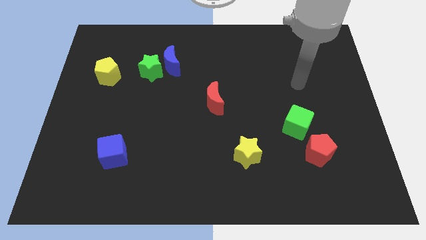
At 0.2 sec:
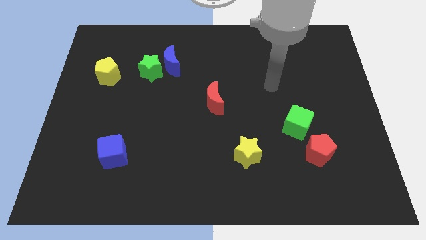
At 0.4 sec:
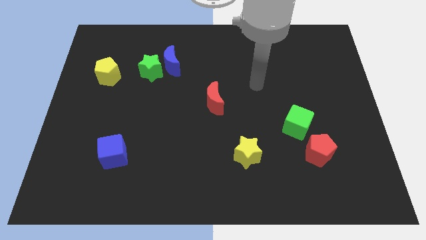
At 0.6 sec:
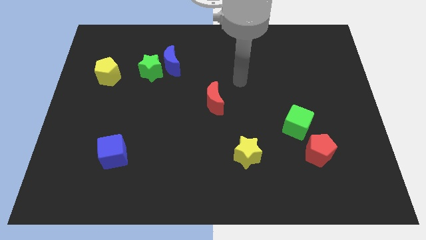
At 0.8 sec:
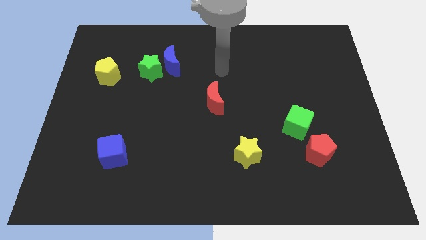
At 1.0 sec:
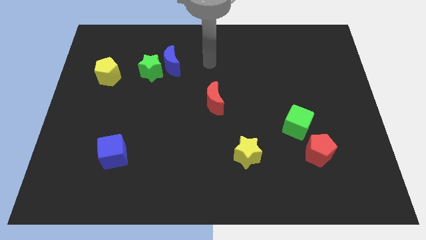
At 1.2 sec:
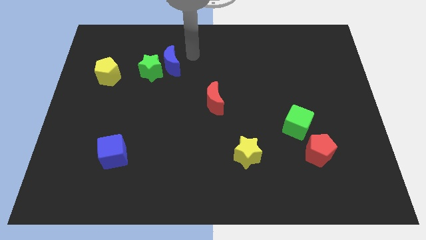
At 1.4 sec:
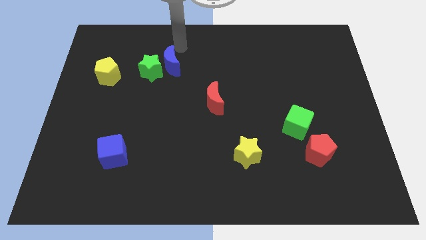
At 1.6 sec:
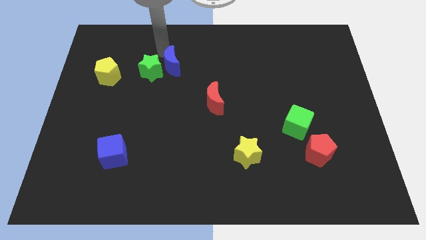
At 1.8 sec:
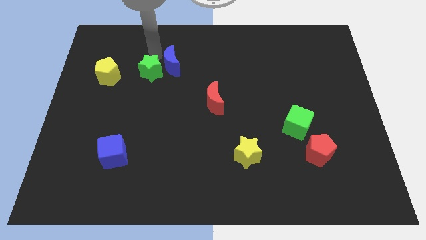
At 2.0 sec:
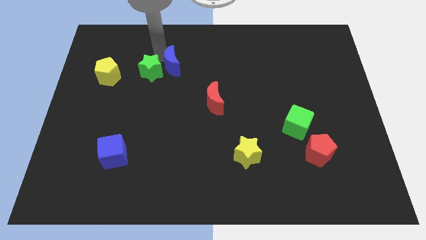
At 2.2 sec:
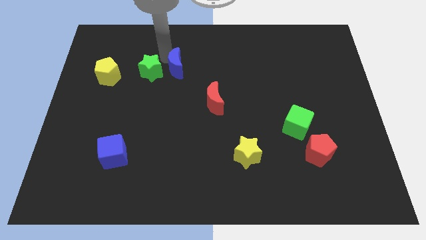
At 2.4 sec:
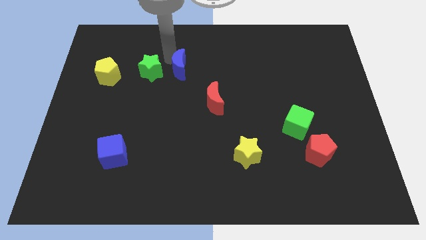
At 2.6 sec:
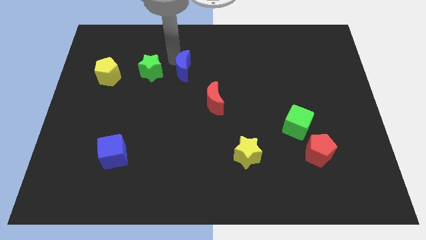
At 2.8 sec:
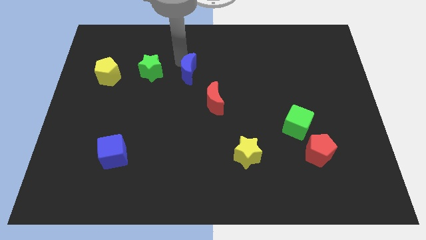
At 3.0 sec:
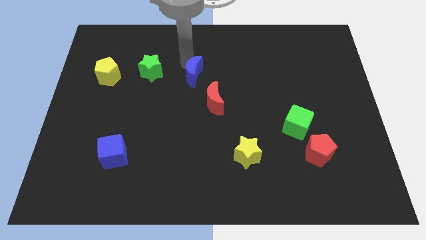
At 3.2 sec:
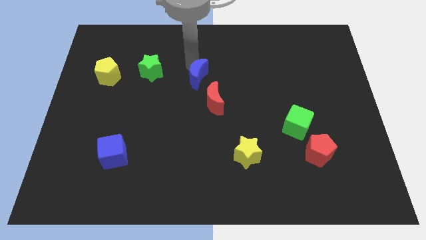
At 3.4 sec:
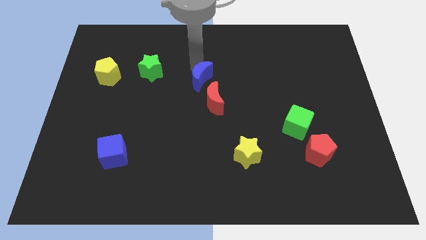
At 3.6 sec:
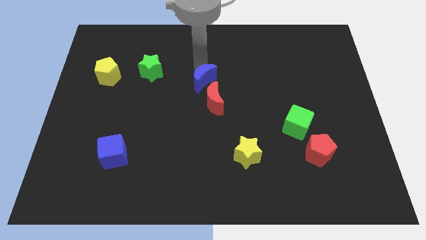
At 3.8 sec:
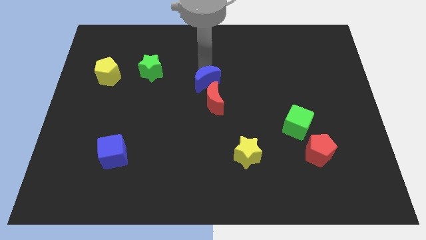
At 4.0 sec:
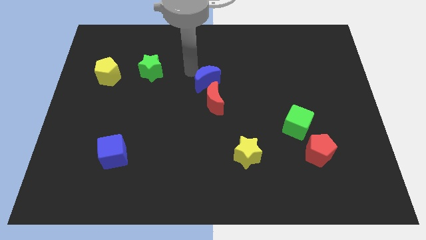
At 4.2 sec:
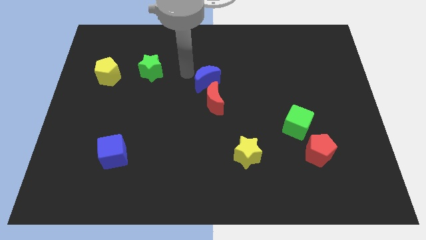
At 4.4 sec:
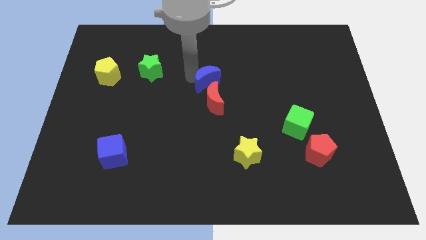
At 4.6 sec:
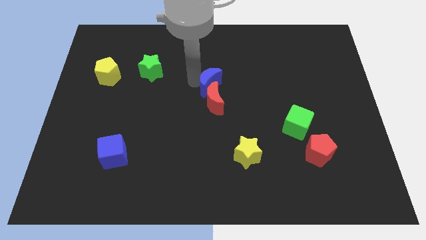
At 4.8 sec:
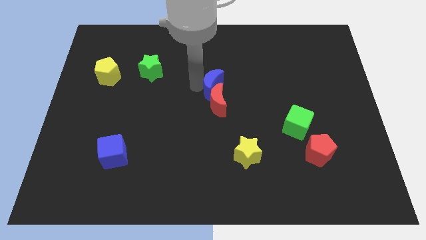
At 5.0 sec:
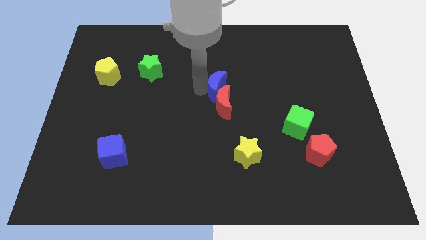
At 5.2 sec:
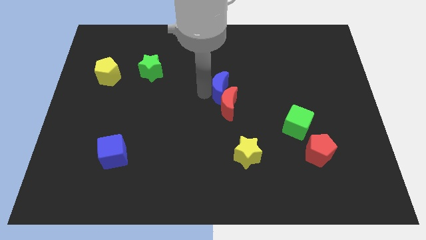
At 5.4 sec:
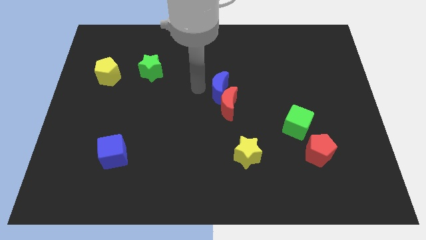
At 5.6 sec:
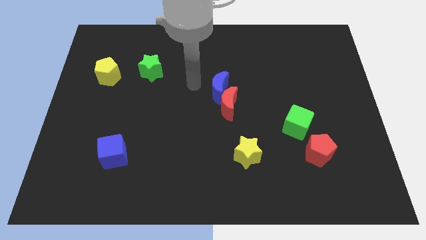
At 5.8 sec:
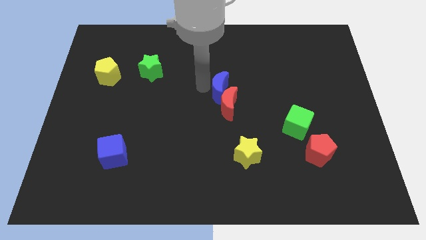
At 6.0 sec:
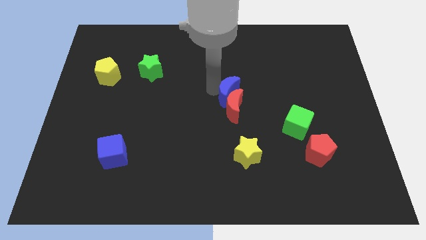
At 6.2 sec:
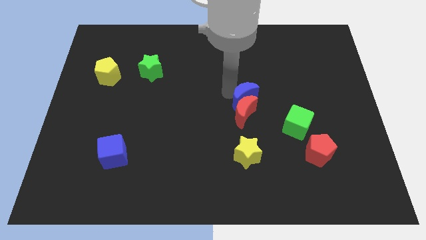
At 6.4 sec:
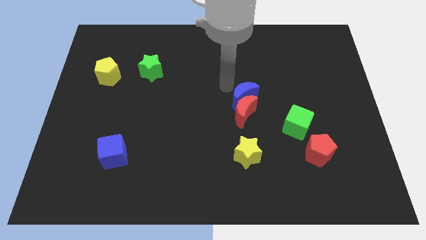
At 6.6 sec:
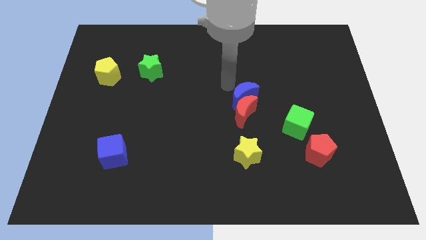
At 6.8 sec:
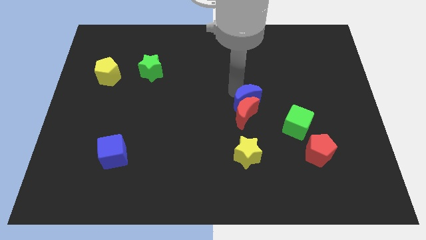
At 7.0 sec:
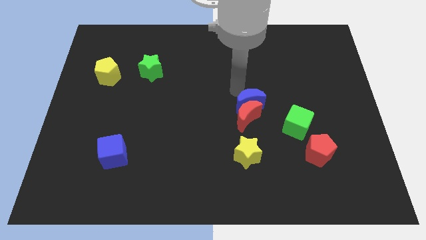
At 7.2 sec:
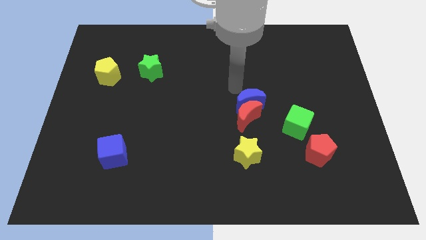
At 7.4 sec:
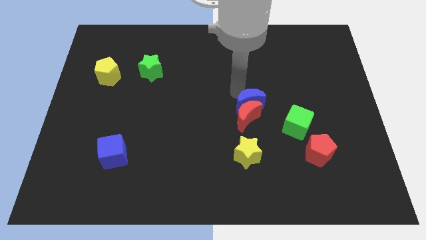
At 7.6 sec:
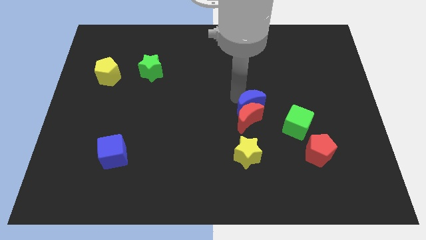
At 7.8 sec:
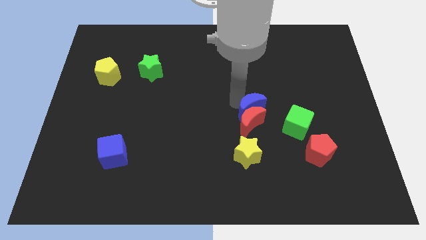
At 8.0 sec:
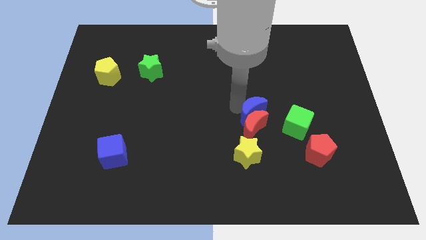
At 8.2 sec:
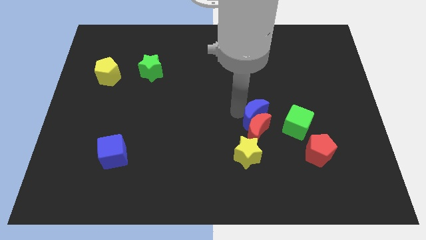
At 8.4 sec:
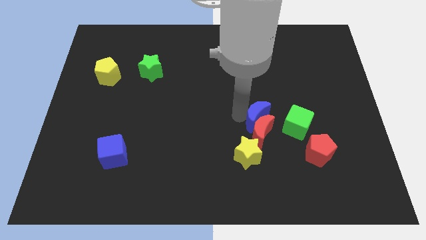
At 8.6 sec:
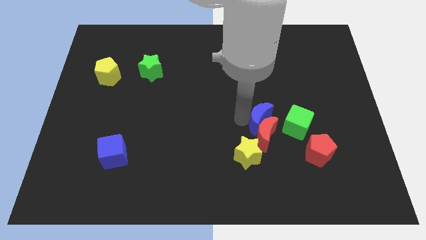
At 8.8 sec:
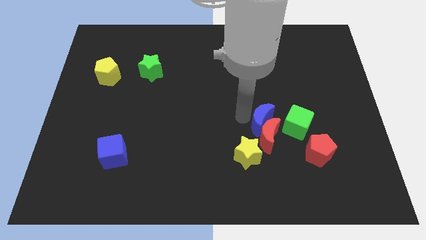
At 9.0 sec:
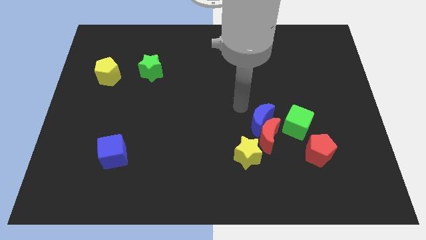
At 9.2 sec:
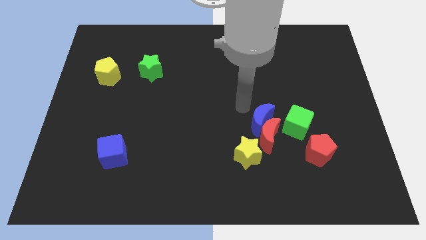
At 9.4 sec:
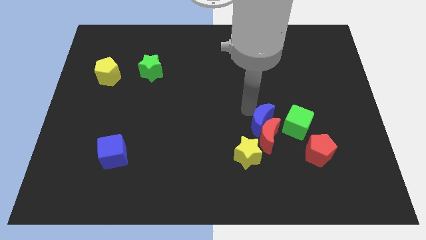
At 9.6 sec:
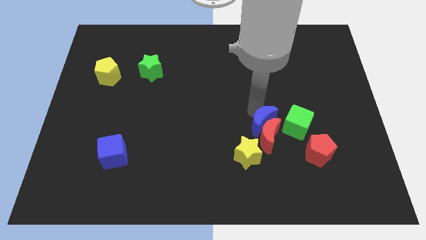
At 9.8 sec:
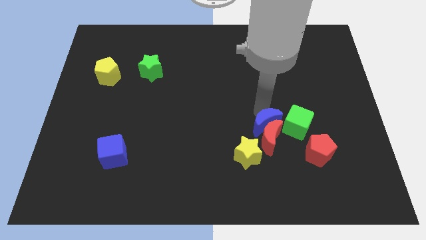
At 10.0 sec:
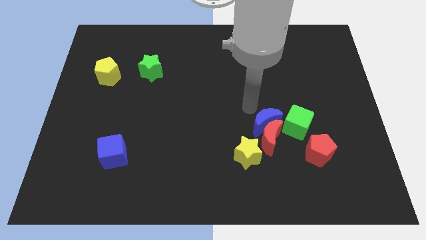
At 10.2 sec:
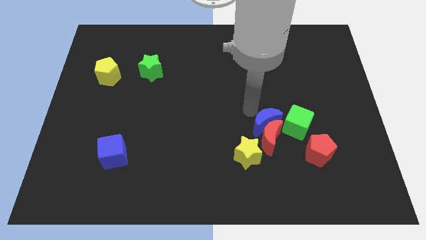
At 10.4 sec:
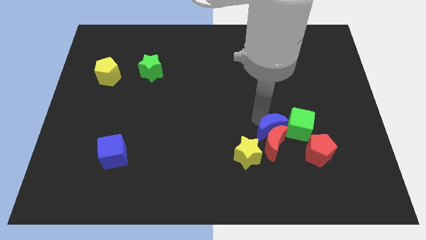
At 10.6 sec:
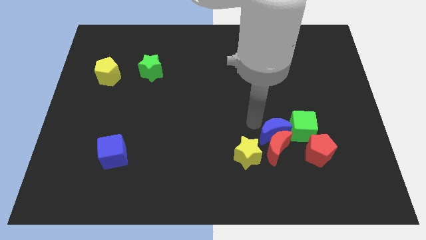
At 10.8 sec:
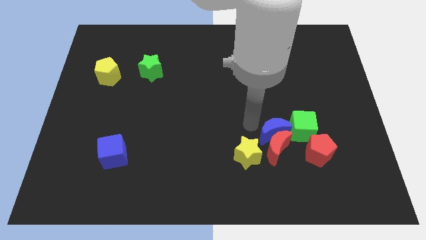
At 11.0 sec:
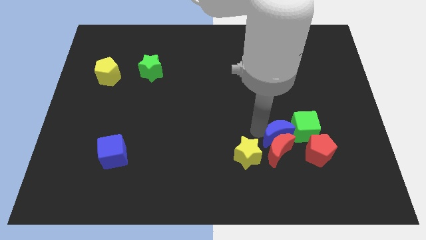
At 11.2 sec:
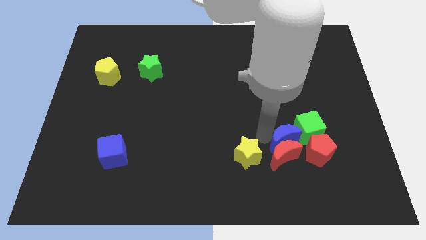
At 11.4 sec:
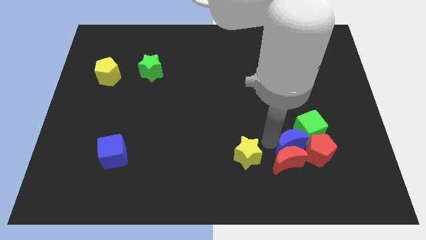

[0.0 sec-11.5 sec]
push the blue moon close to the red pentagon

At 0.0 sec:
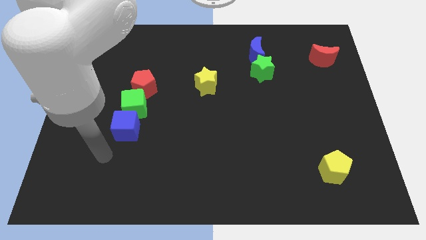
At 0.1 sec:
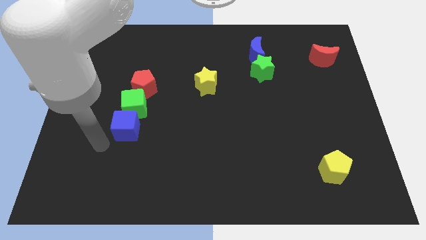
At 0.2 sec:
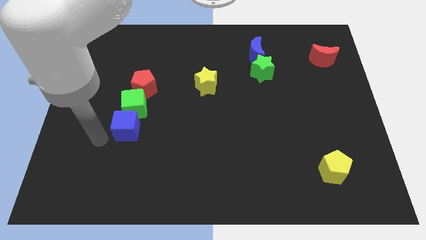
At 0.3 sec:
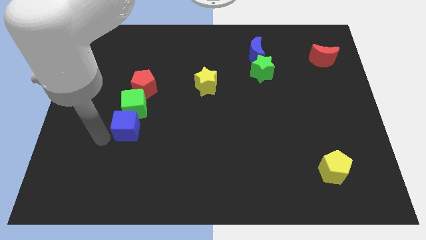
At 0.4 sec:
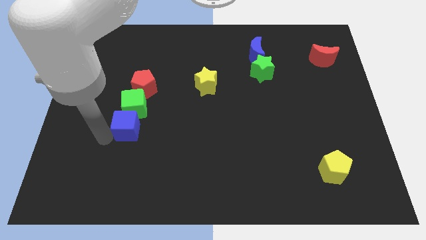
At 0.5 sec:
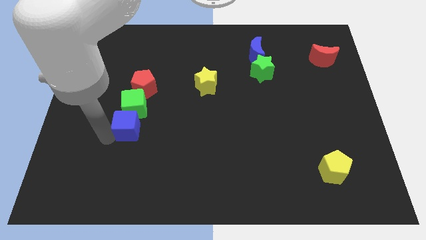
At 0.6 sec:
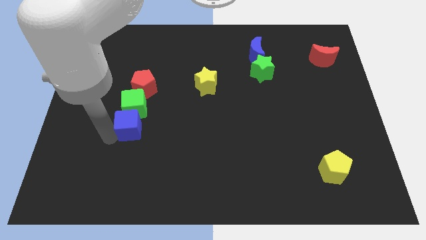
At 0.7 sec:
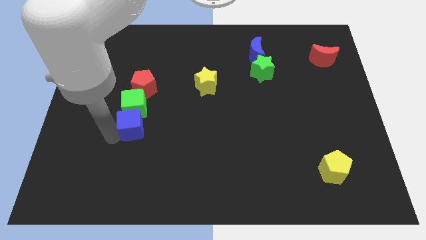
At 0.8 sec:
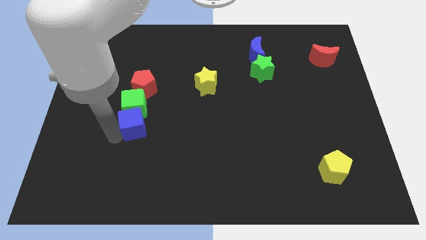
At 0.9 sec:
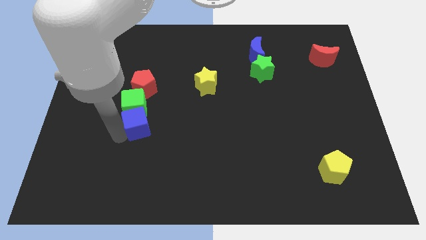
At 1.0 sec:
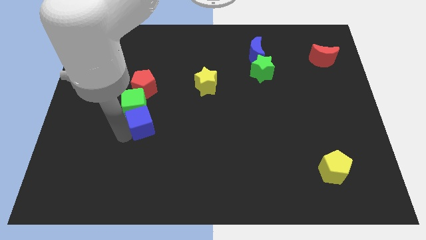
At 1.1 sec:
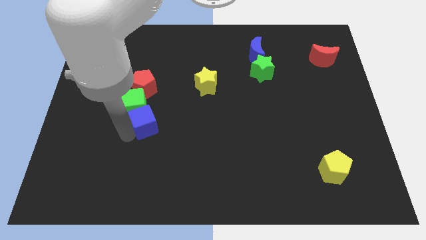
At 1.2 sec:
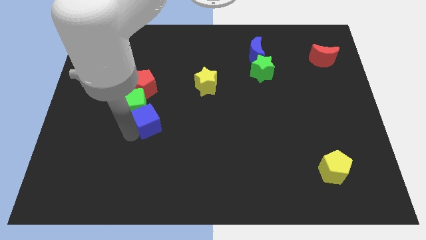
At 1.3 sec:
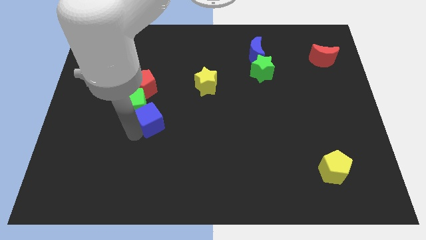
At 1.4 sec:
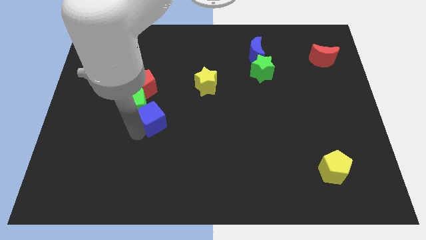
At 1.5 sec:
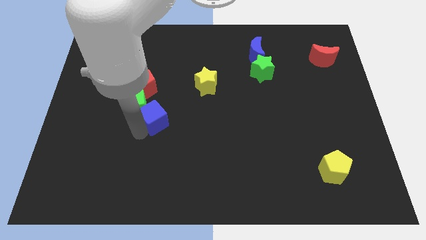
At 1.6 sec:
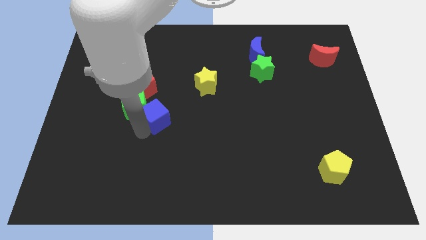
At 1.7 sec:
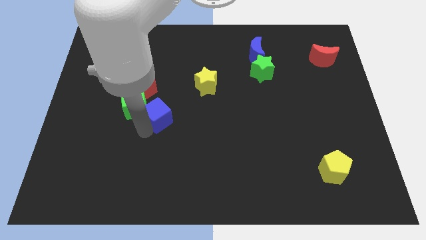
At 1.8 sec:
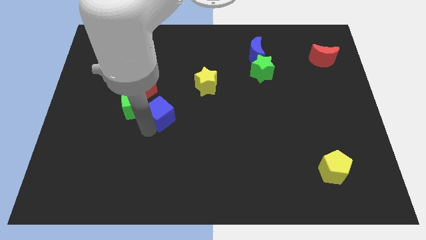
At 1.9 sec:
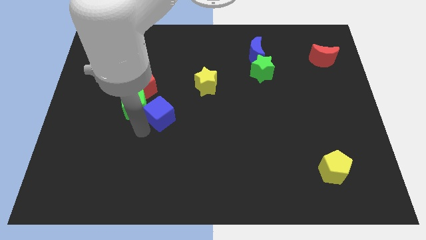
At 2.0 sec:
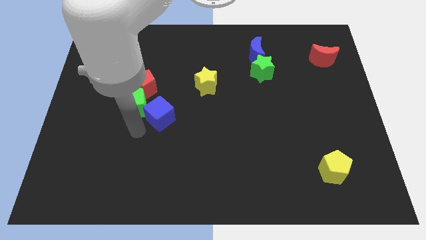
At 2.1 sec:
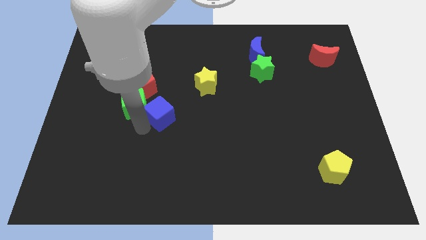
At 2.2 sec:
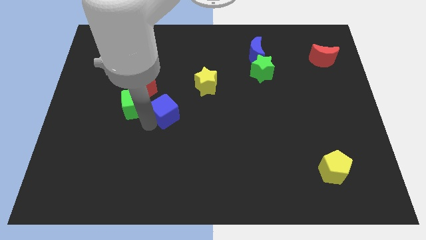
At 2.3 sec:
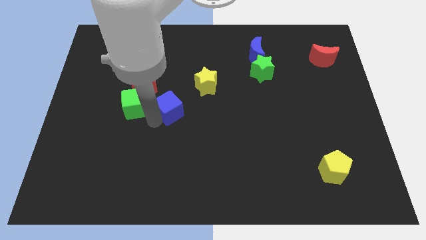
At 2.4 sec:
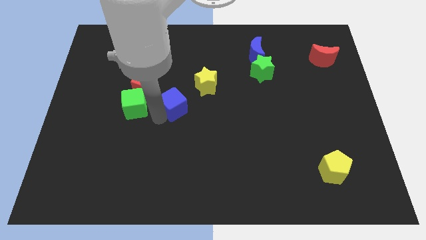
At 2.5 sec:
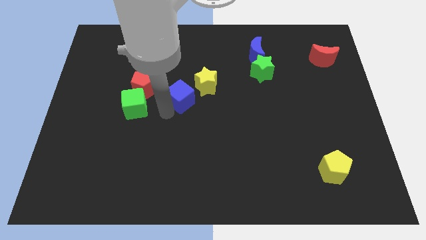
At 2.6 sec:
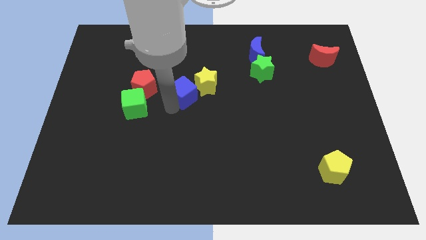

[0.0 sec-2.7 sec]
put the blue cube close to the yellow star
